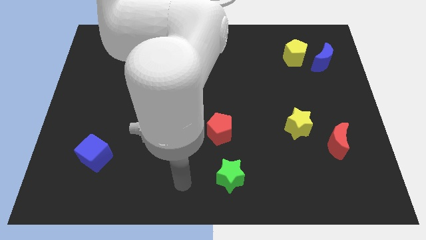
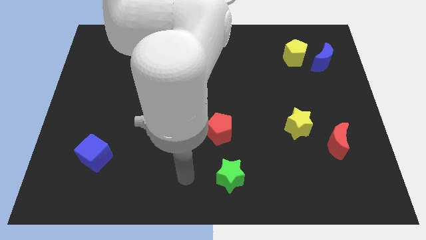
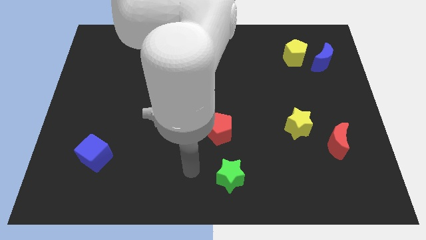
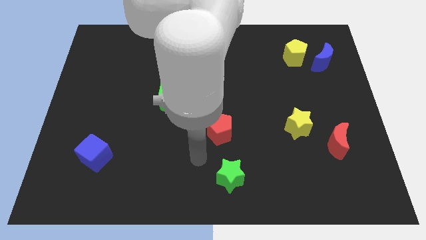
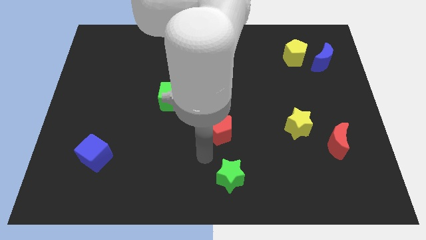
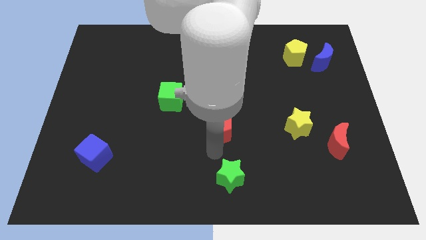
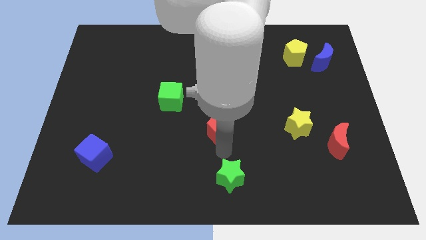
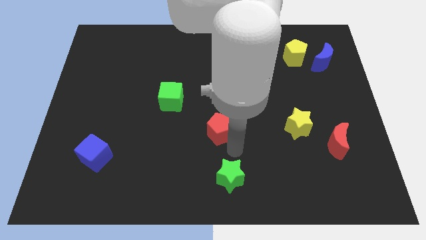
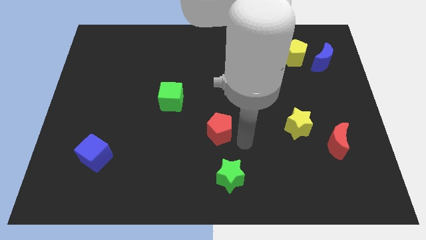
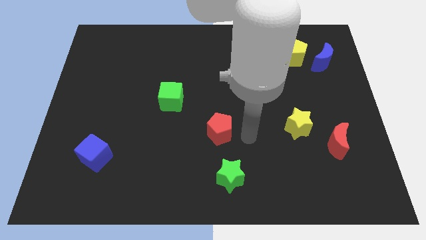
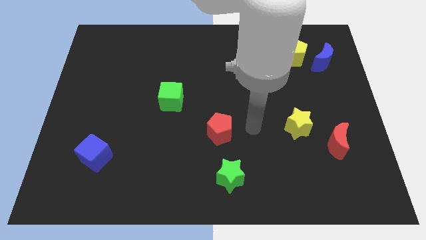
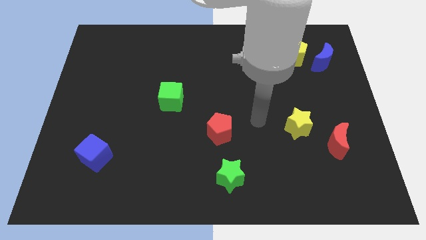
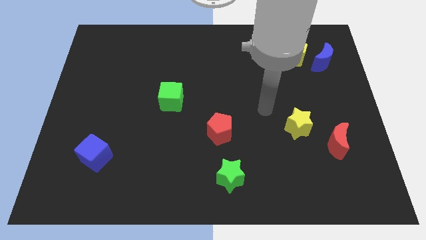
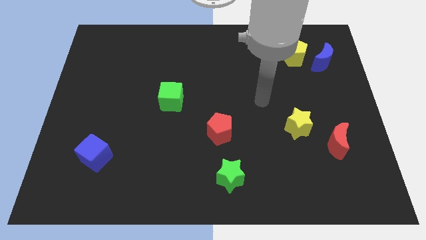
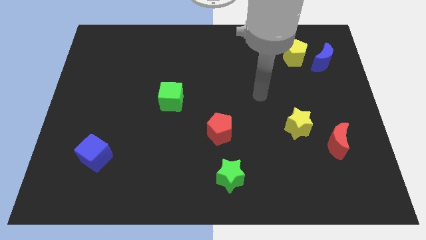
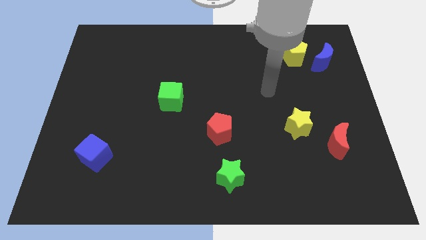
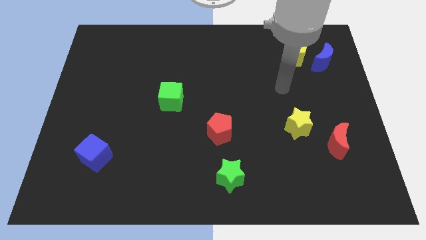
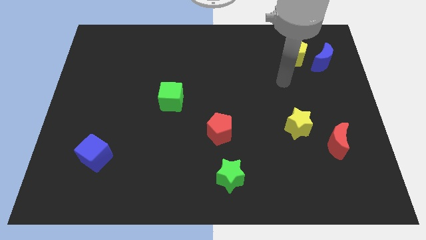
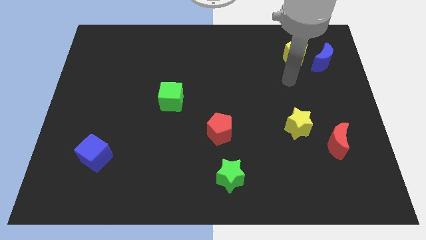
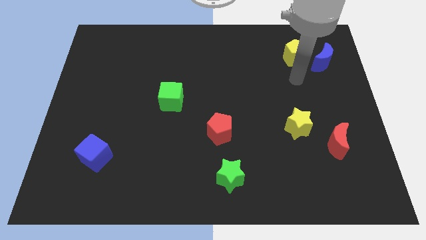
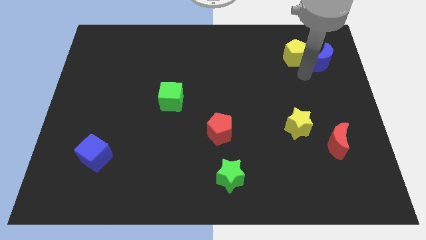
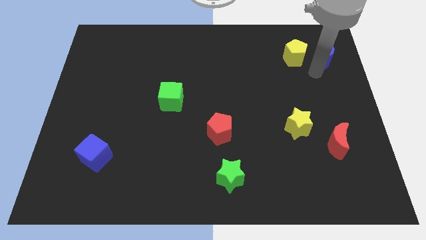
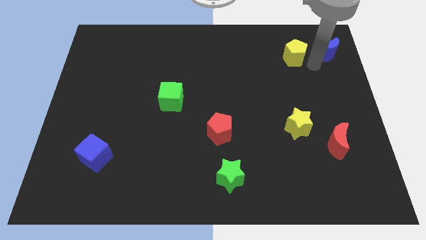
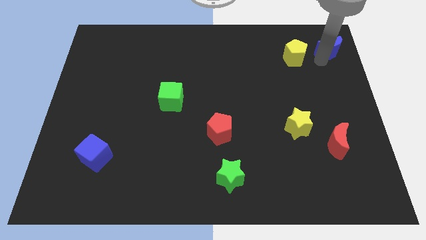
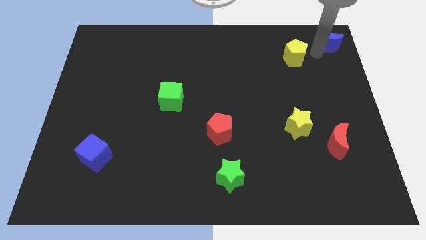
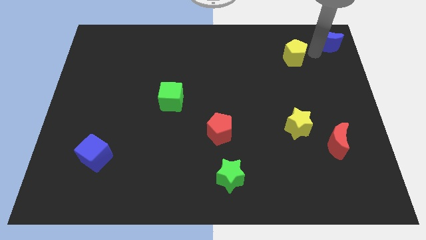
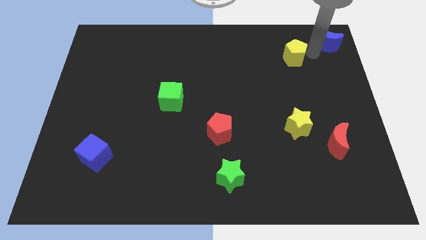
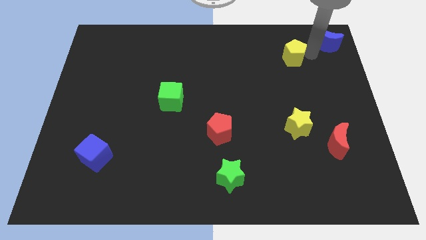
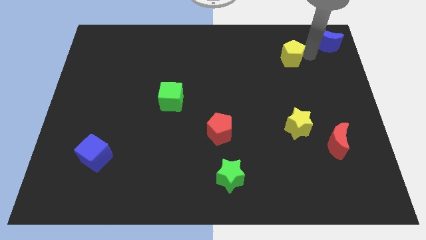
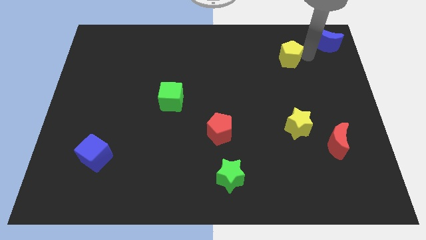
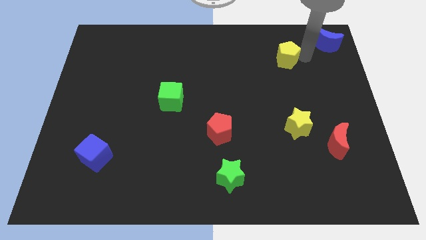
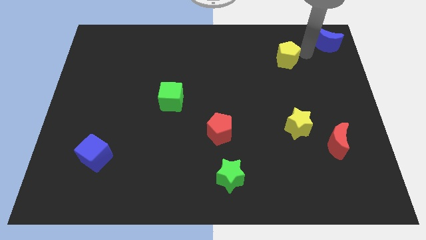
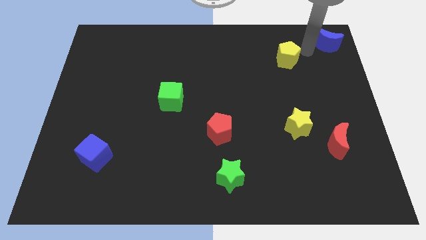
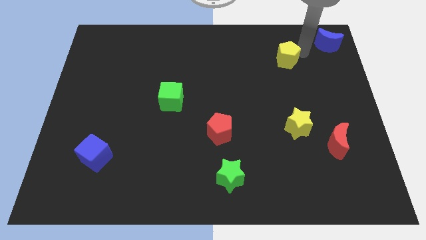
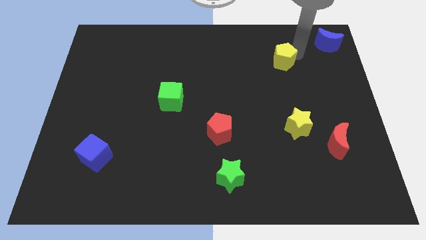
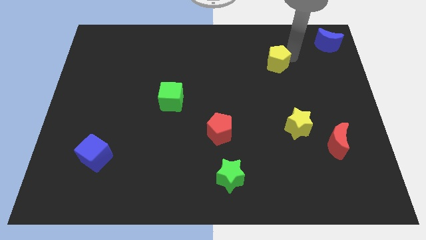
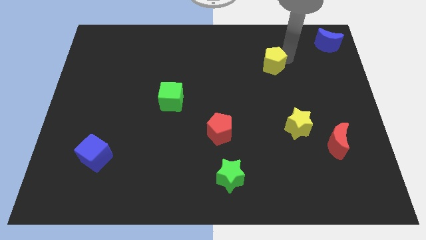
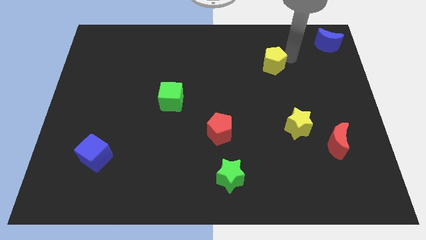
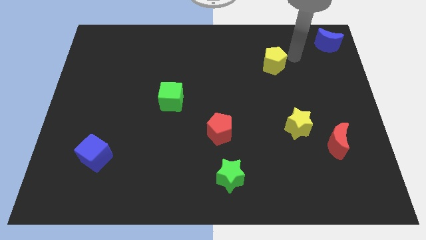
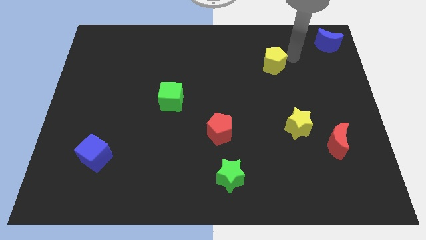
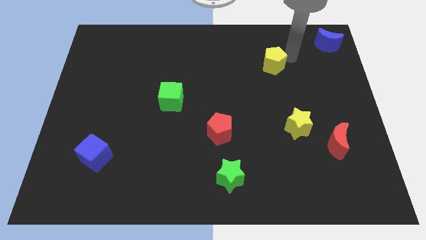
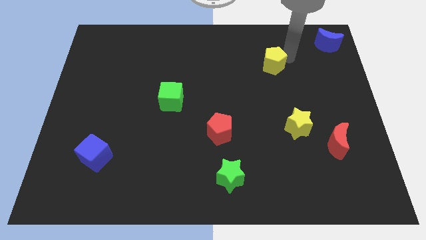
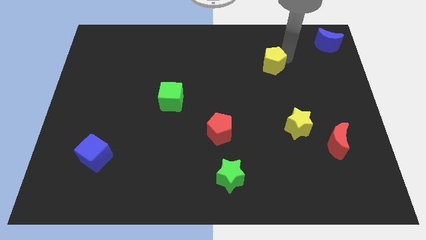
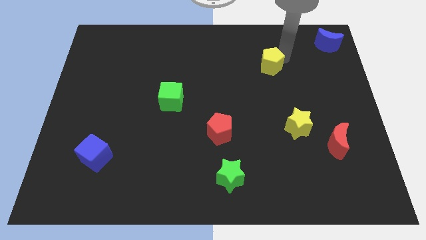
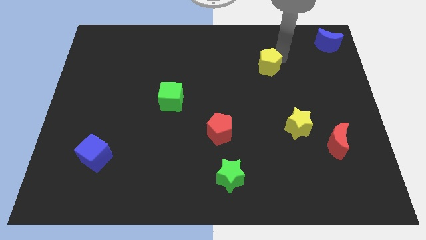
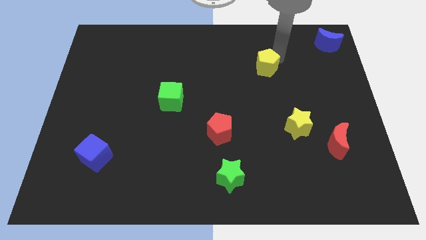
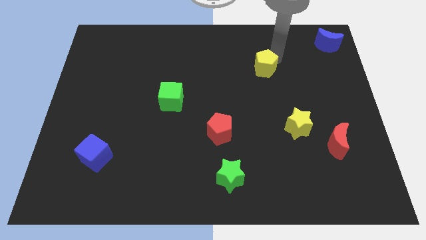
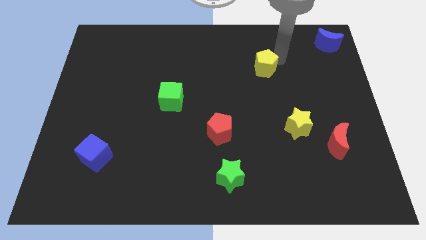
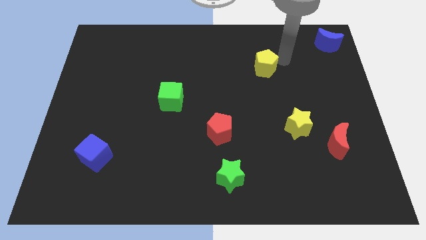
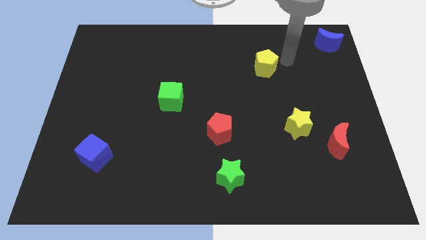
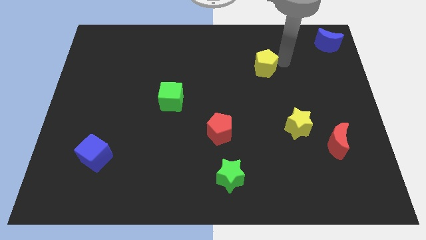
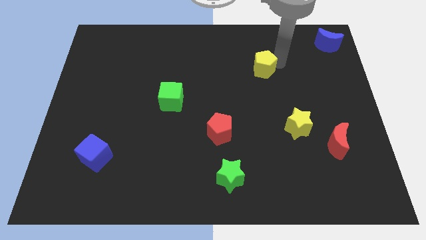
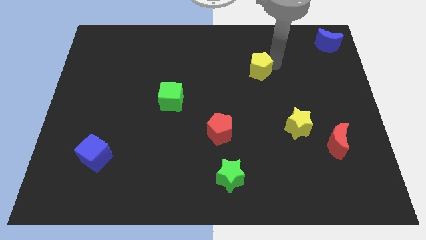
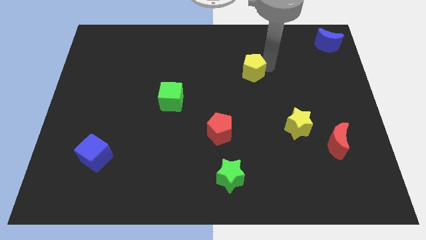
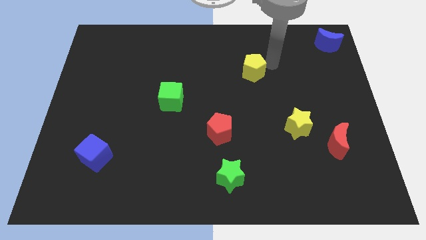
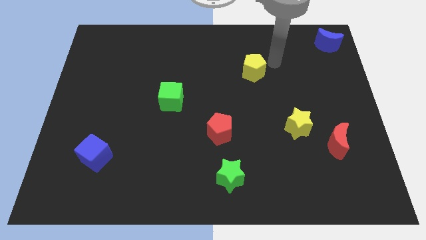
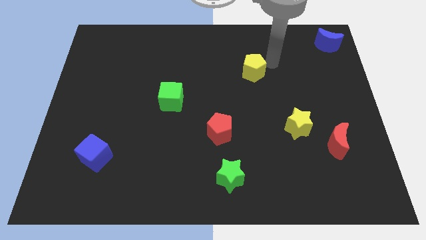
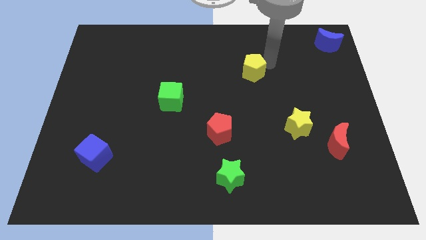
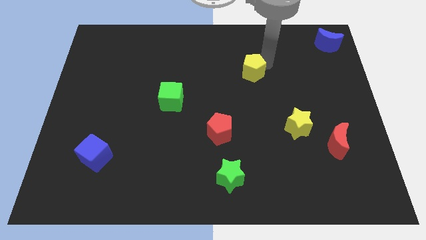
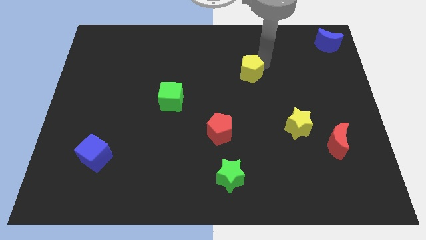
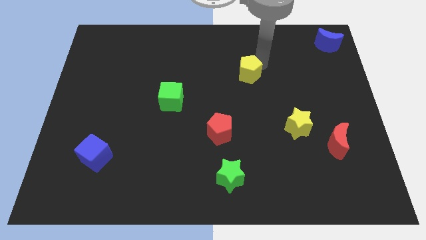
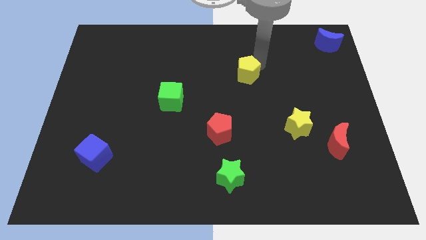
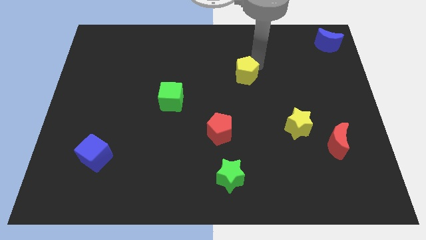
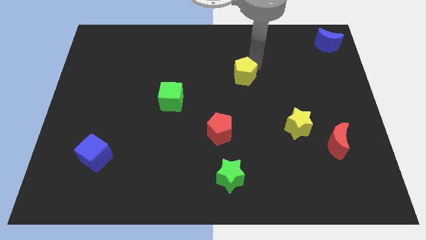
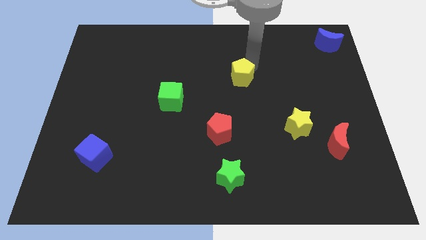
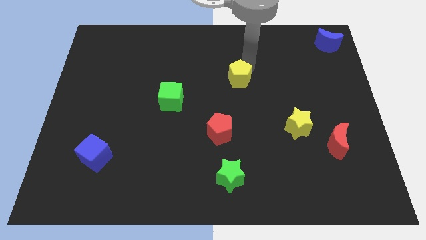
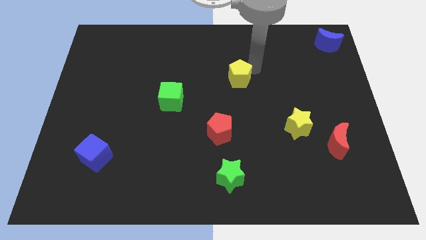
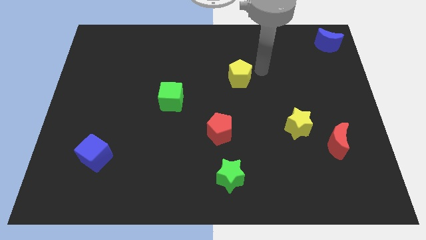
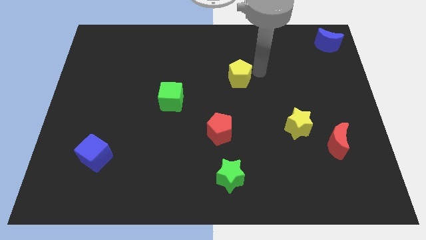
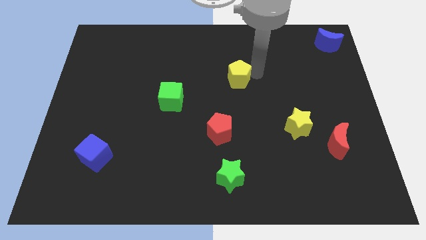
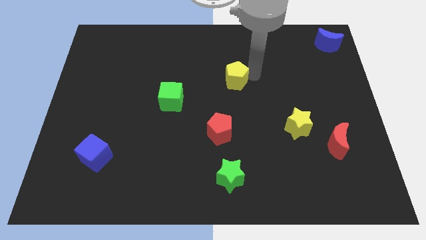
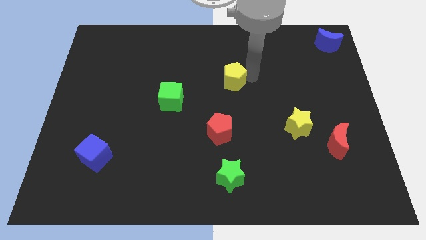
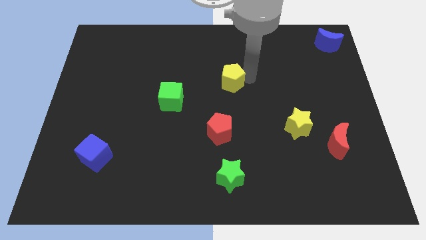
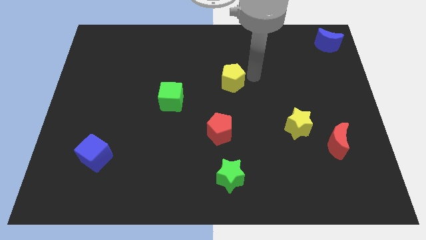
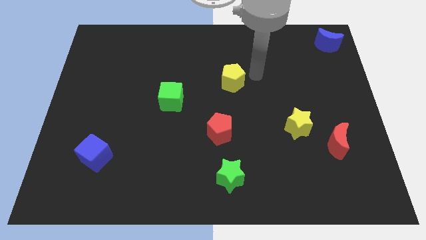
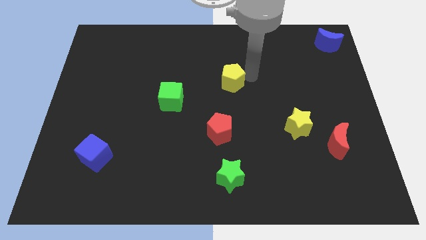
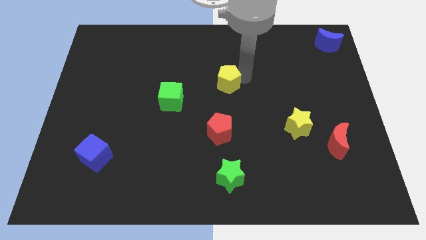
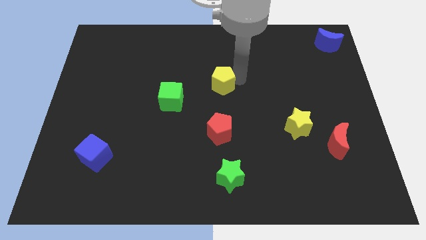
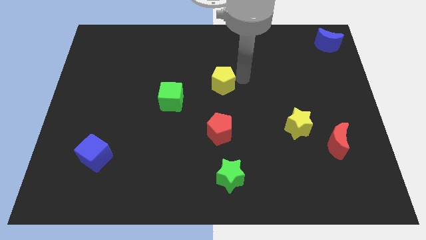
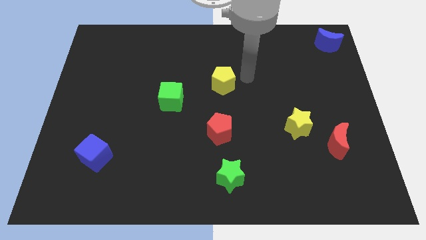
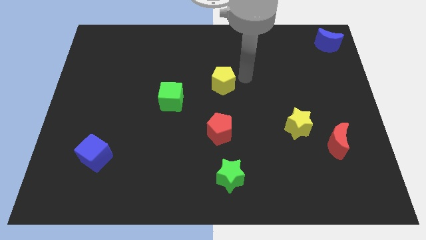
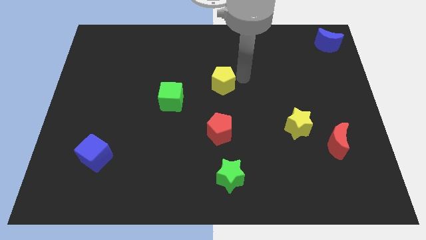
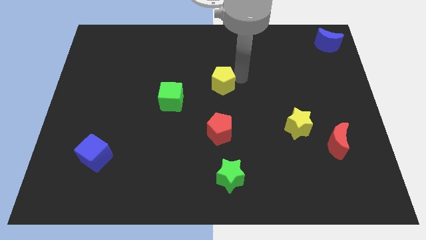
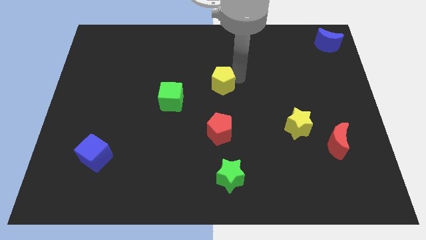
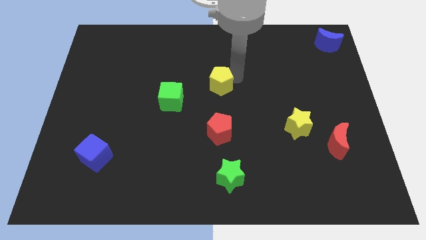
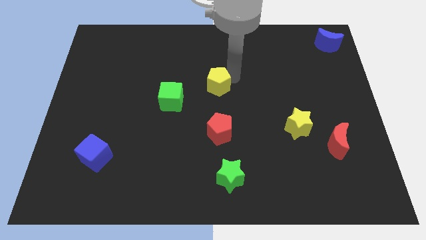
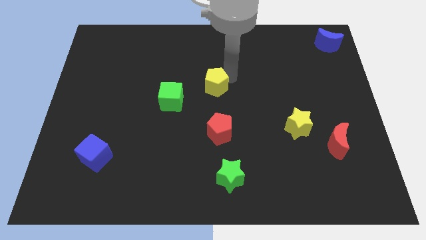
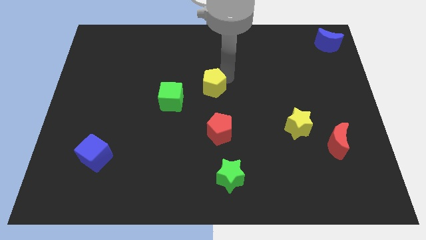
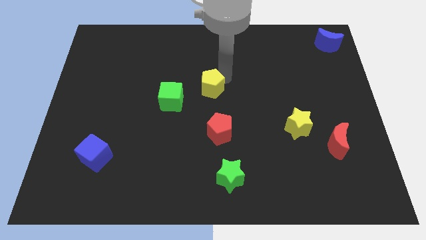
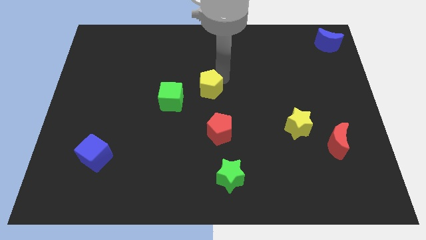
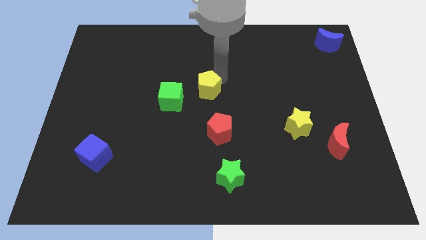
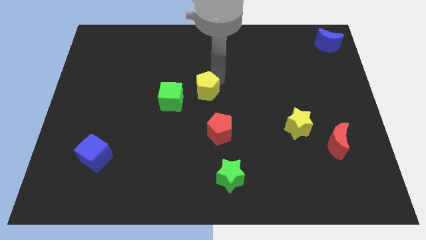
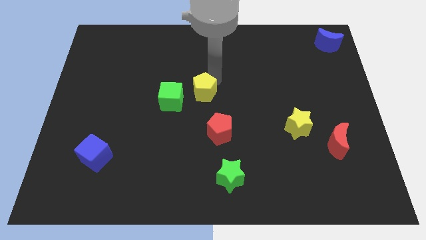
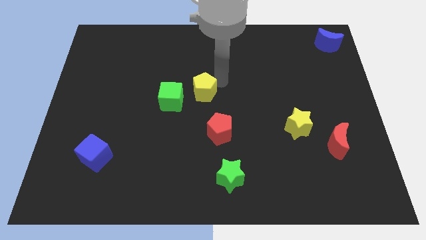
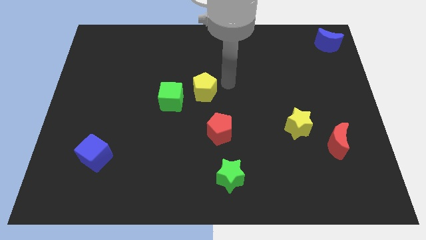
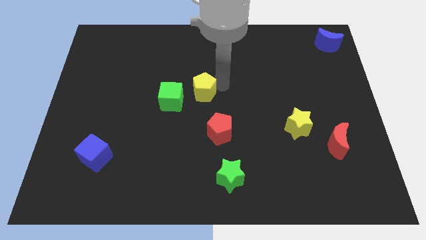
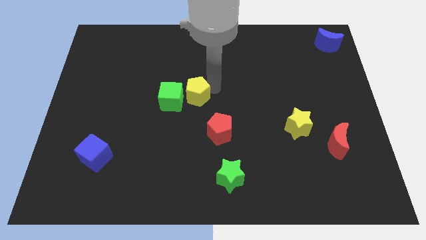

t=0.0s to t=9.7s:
slide the yellow pentagon towards the green cube
